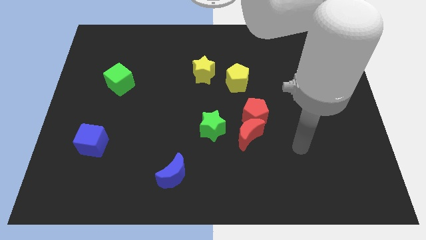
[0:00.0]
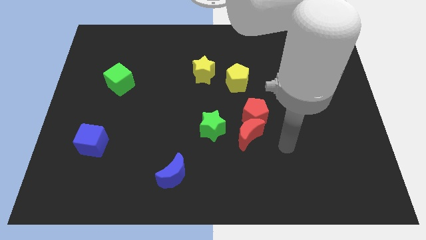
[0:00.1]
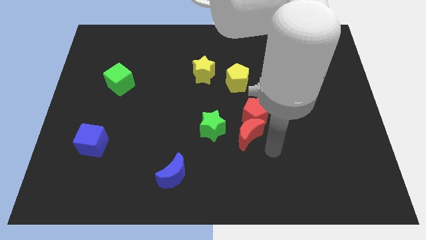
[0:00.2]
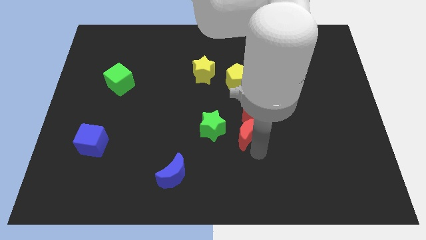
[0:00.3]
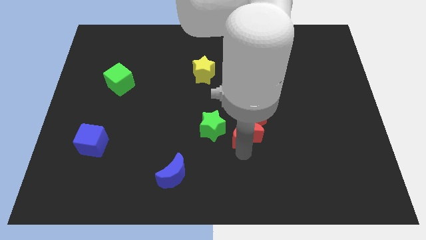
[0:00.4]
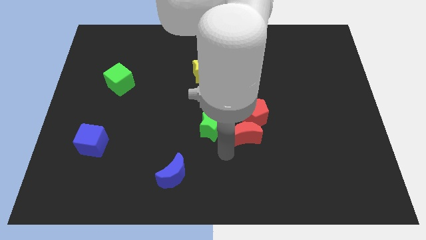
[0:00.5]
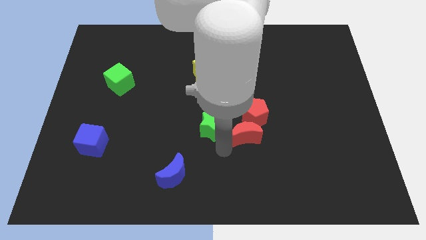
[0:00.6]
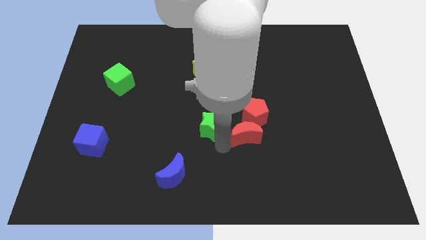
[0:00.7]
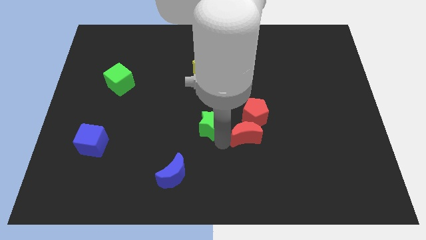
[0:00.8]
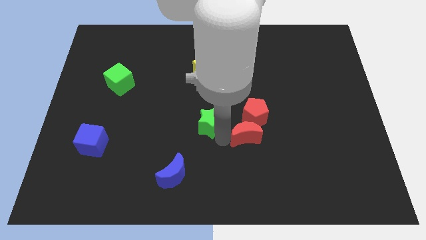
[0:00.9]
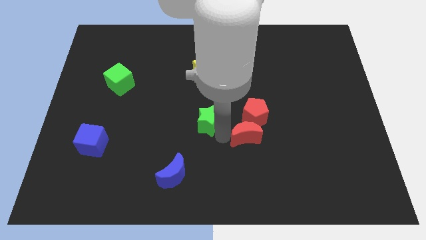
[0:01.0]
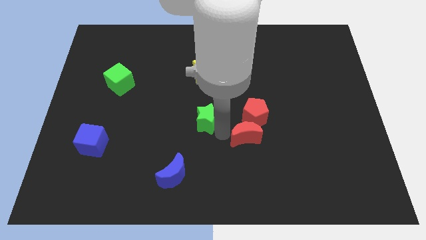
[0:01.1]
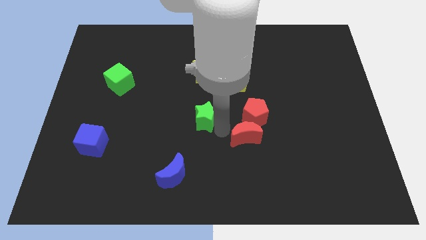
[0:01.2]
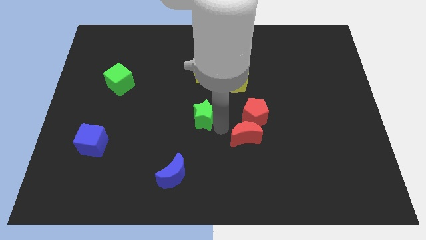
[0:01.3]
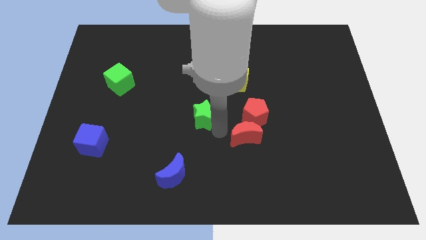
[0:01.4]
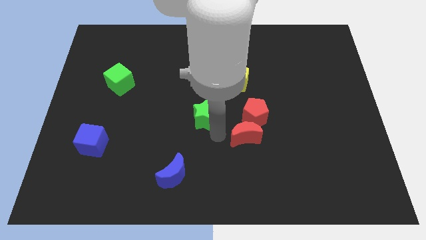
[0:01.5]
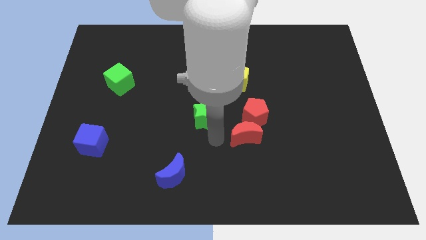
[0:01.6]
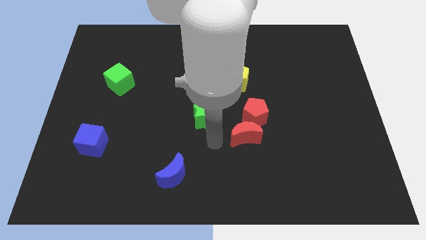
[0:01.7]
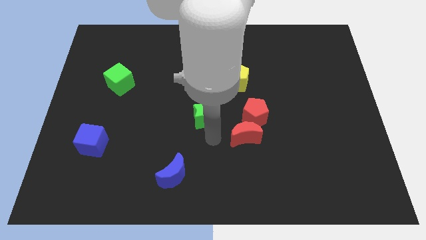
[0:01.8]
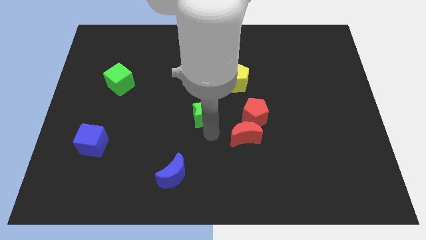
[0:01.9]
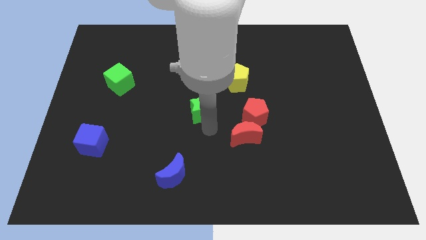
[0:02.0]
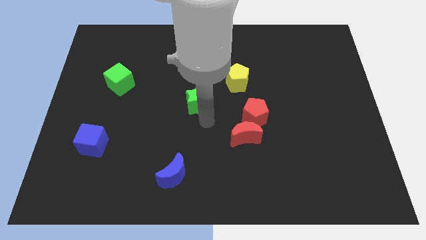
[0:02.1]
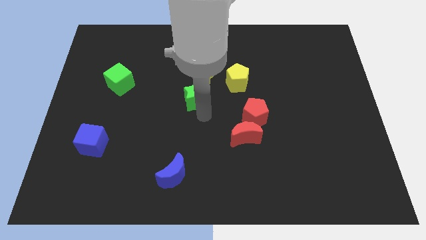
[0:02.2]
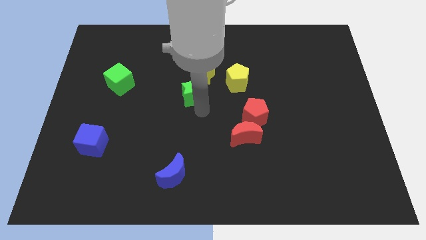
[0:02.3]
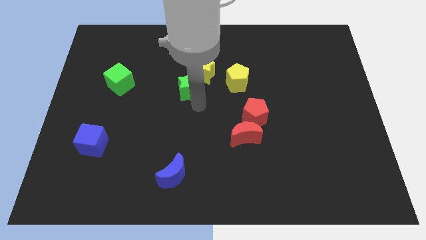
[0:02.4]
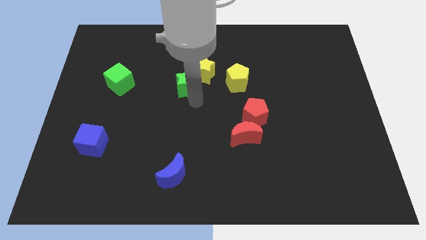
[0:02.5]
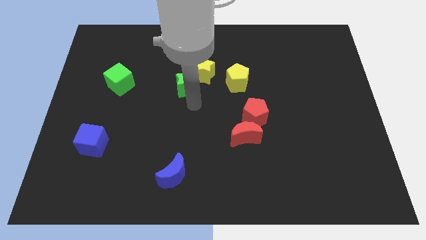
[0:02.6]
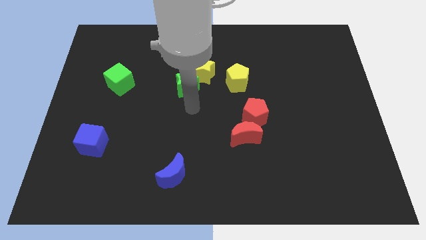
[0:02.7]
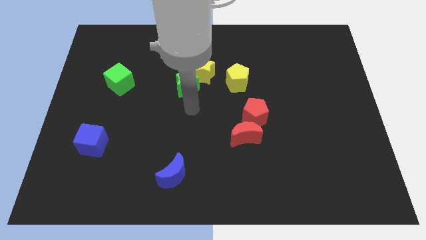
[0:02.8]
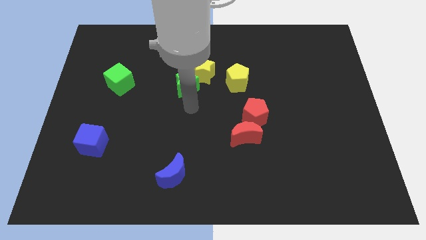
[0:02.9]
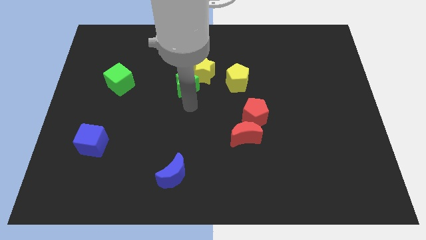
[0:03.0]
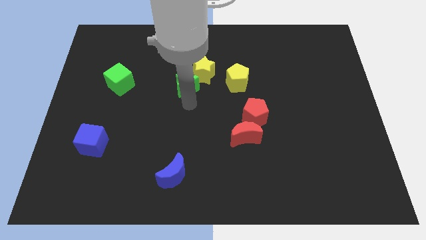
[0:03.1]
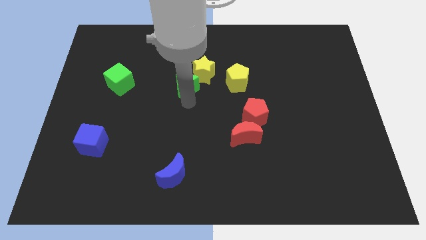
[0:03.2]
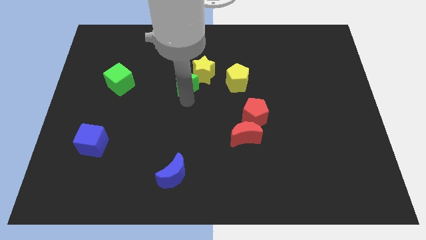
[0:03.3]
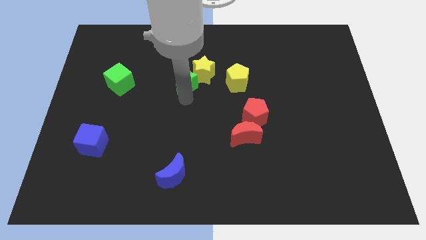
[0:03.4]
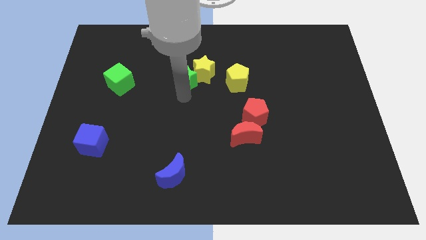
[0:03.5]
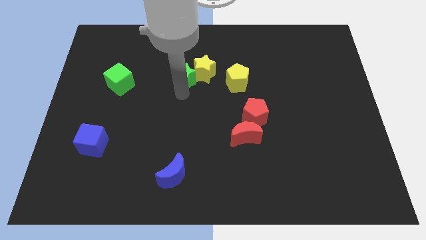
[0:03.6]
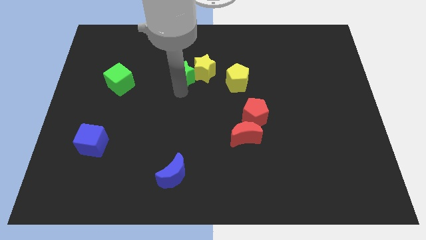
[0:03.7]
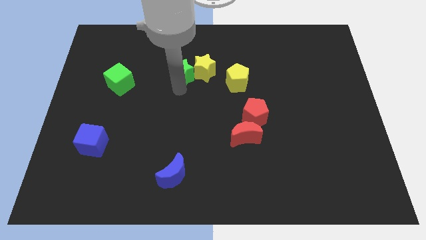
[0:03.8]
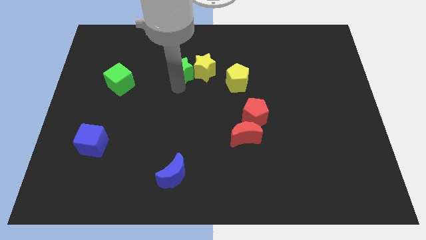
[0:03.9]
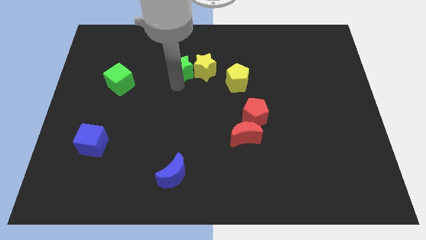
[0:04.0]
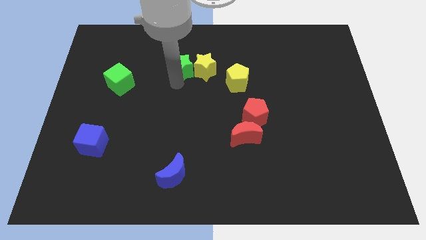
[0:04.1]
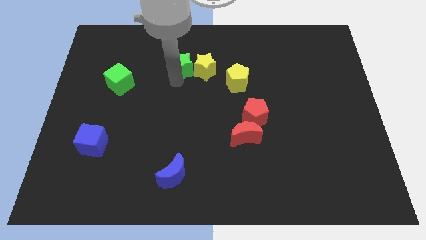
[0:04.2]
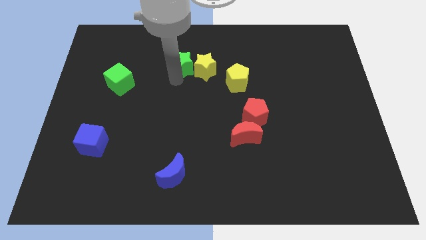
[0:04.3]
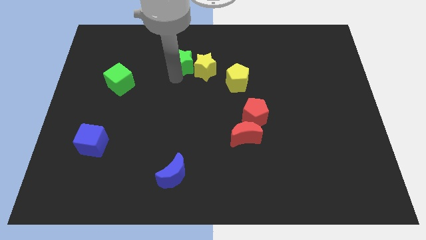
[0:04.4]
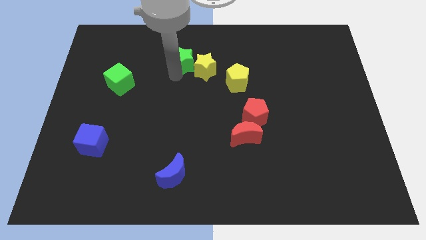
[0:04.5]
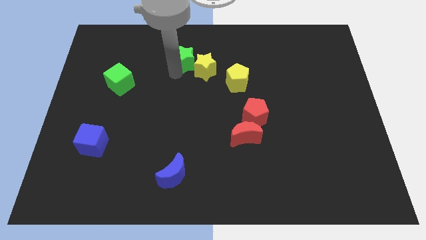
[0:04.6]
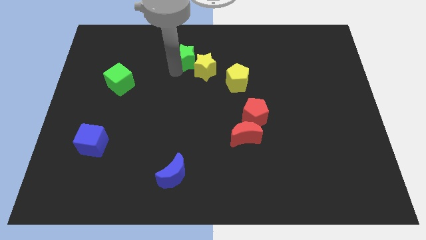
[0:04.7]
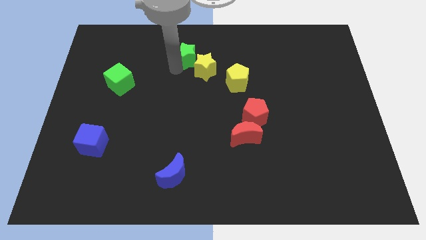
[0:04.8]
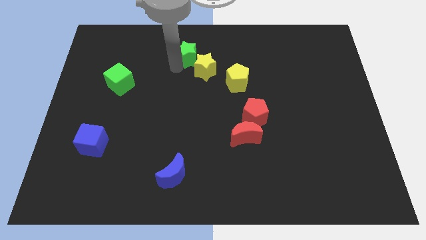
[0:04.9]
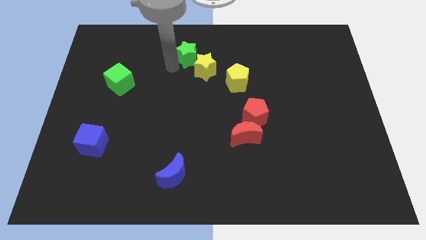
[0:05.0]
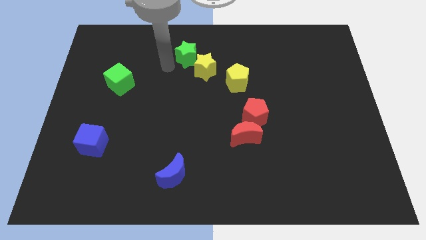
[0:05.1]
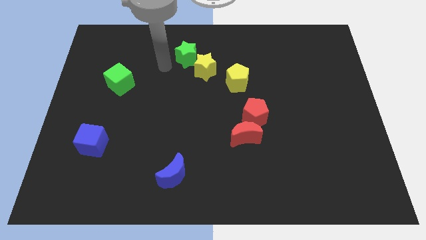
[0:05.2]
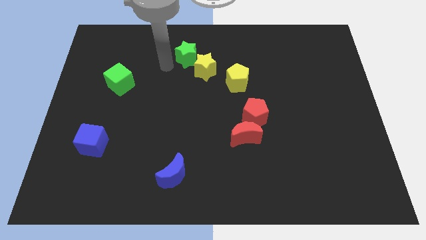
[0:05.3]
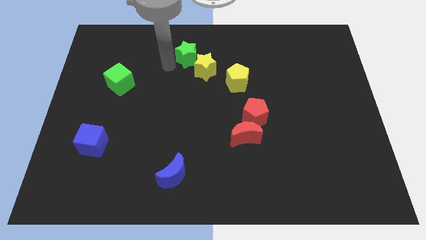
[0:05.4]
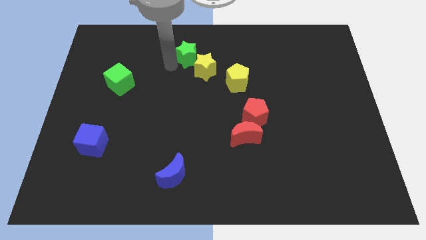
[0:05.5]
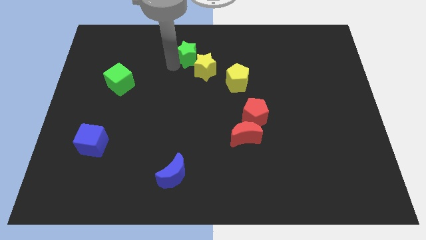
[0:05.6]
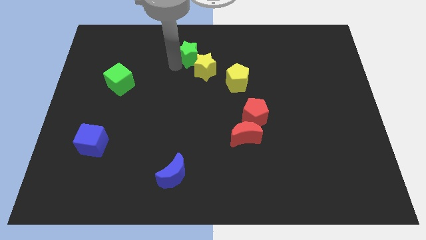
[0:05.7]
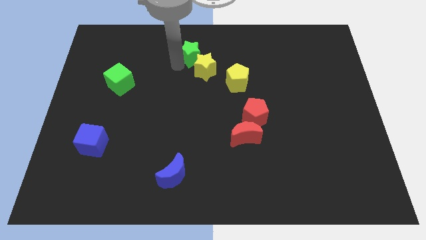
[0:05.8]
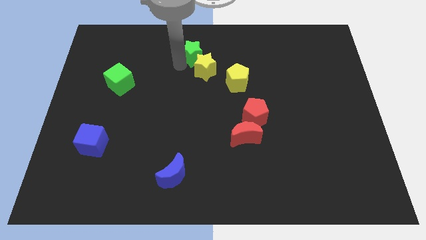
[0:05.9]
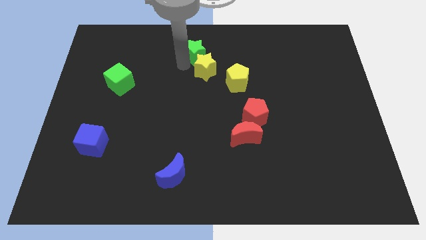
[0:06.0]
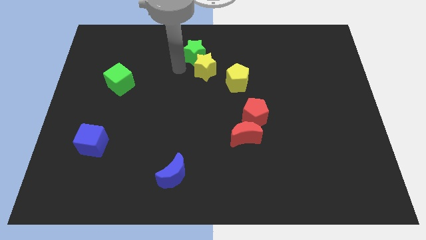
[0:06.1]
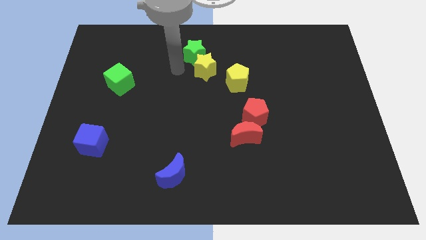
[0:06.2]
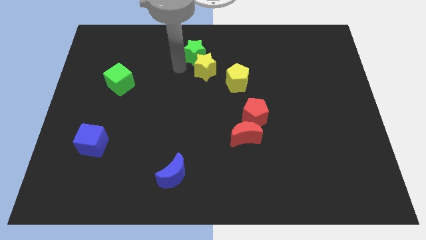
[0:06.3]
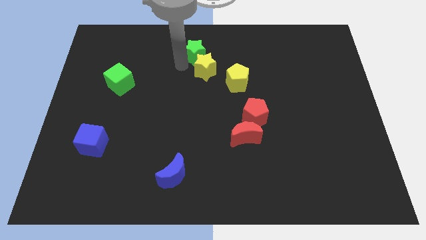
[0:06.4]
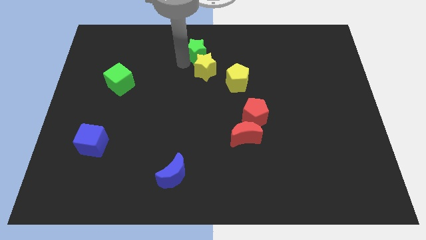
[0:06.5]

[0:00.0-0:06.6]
move the green star to the towards your base
